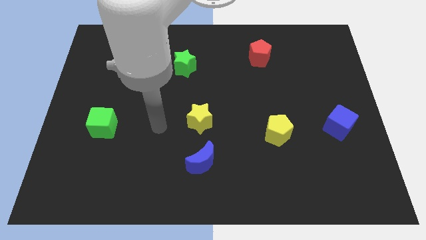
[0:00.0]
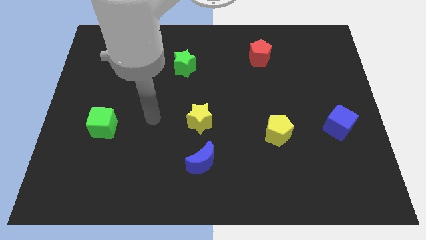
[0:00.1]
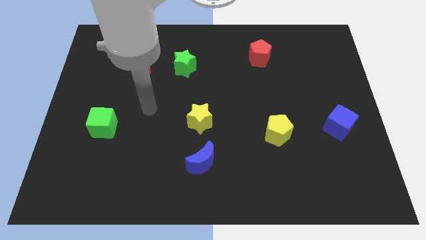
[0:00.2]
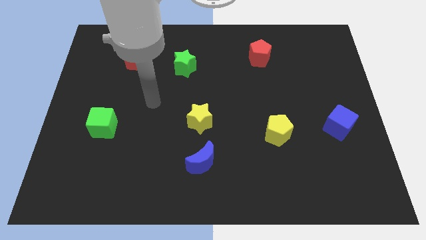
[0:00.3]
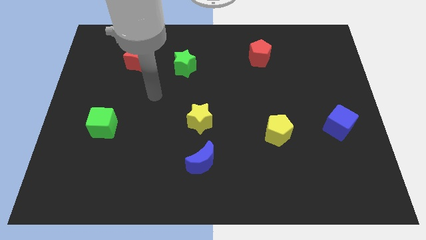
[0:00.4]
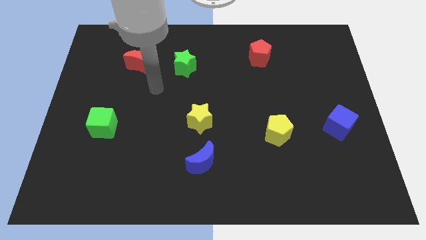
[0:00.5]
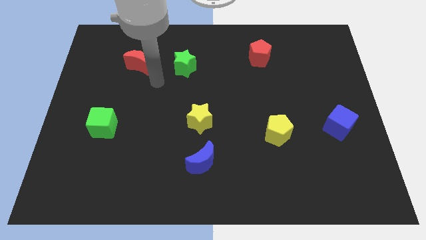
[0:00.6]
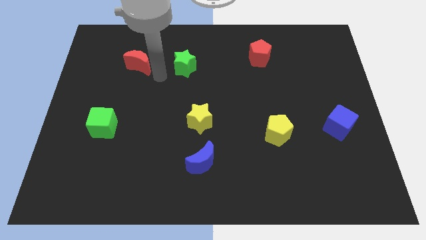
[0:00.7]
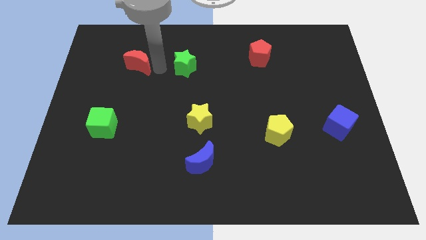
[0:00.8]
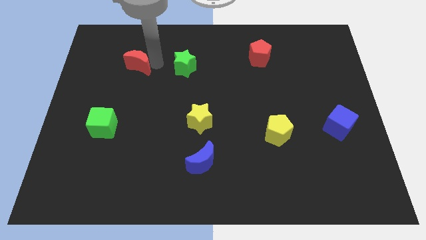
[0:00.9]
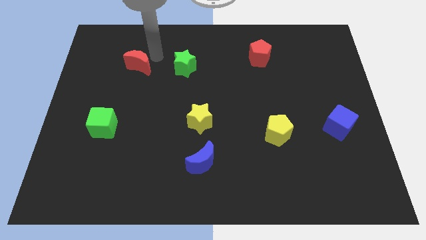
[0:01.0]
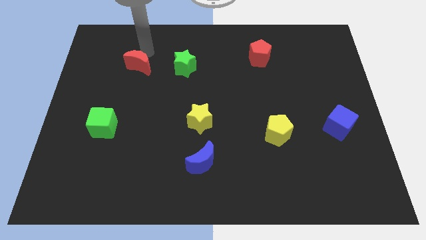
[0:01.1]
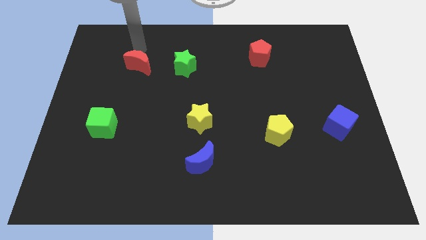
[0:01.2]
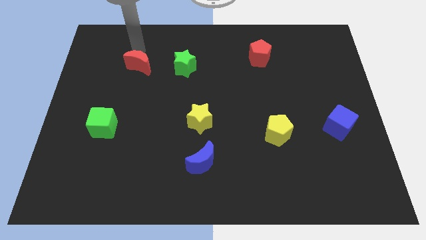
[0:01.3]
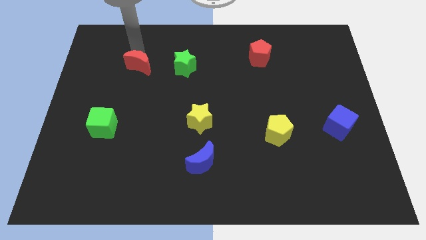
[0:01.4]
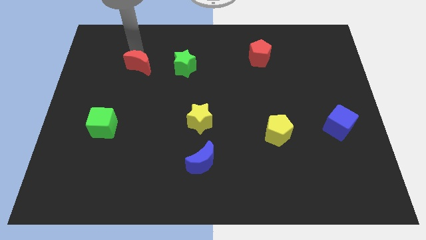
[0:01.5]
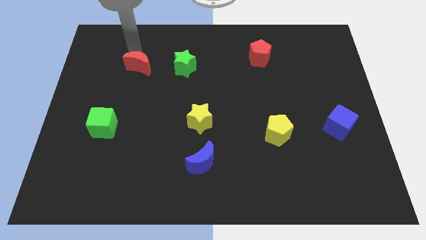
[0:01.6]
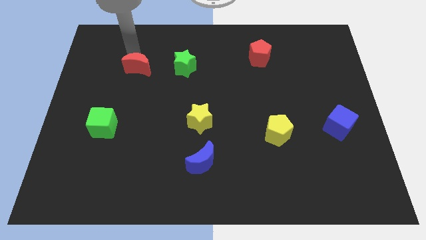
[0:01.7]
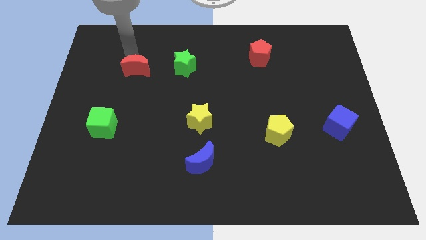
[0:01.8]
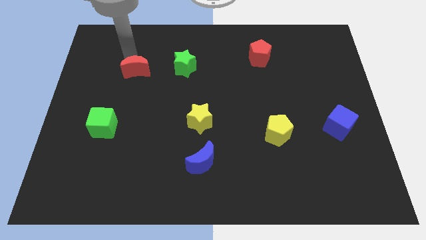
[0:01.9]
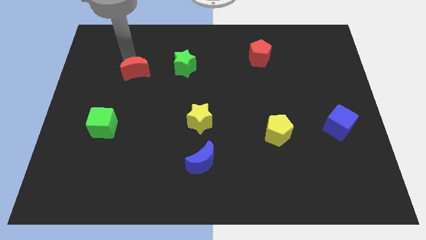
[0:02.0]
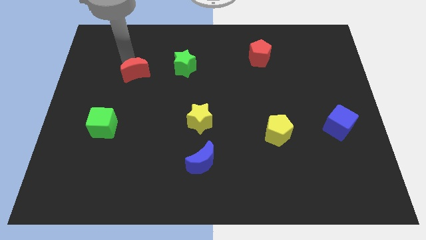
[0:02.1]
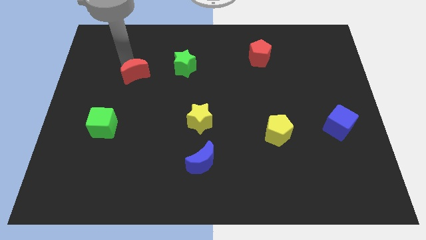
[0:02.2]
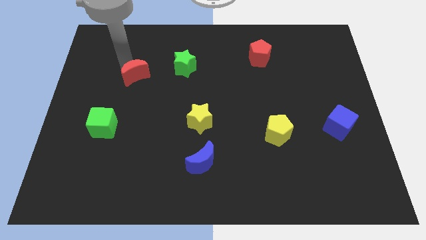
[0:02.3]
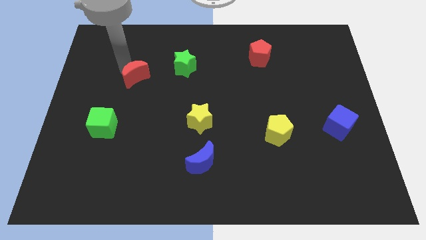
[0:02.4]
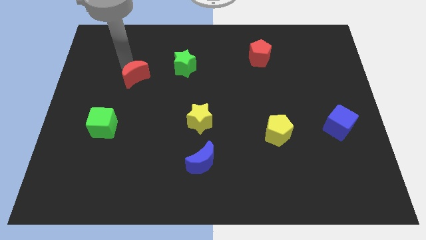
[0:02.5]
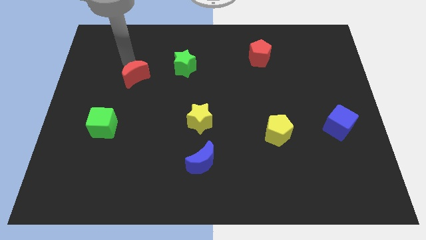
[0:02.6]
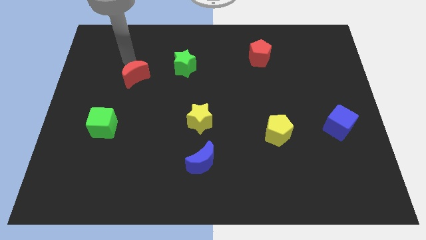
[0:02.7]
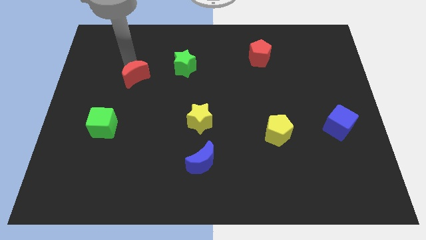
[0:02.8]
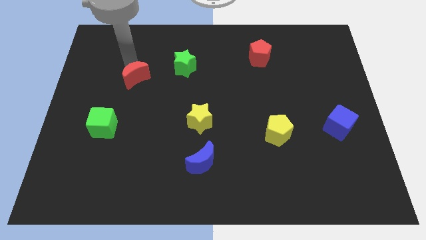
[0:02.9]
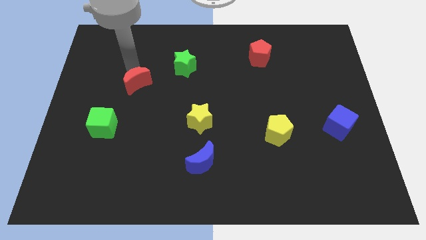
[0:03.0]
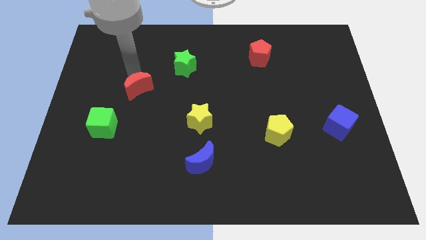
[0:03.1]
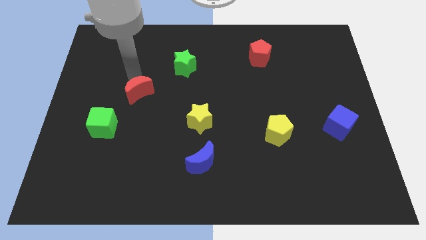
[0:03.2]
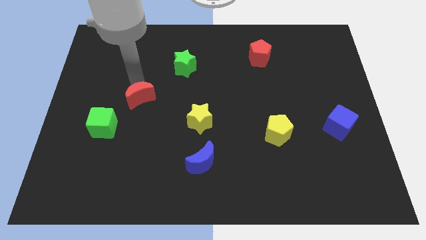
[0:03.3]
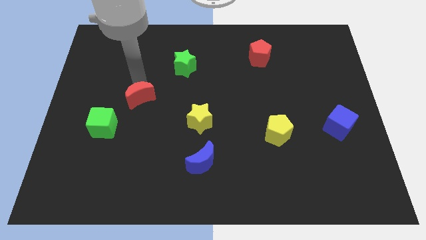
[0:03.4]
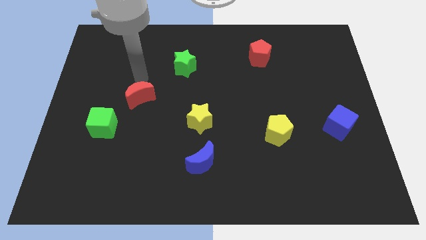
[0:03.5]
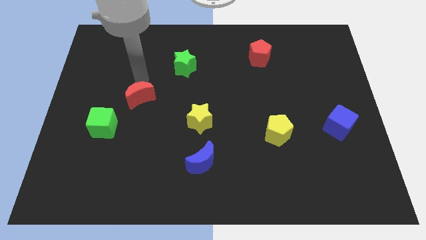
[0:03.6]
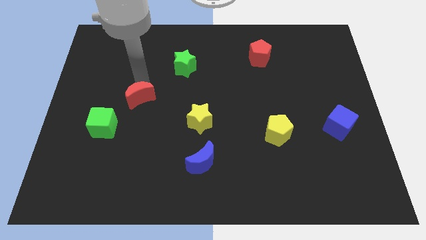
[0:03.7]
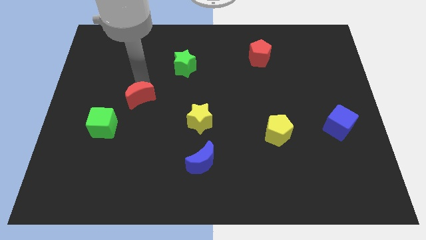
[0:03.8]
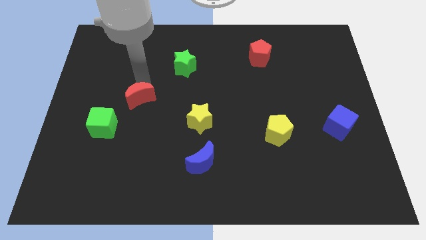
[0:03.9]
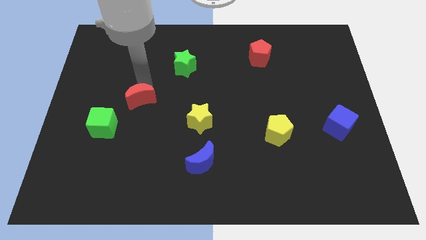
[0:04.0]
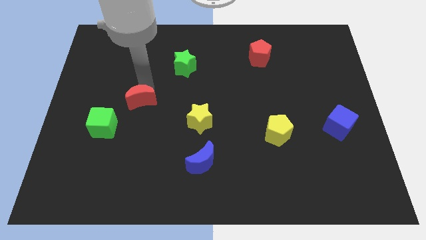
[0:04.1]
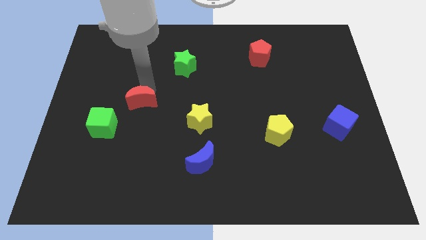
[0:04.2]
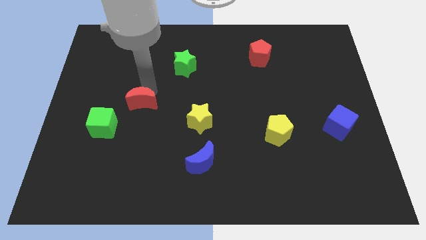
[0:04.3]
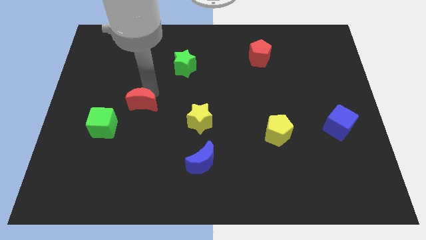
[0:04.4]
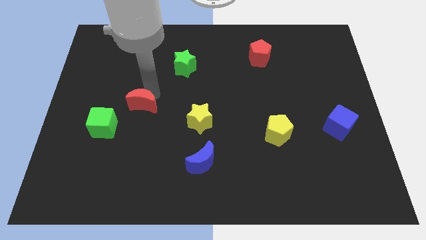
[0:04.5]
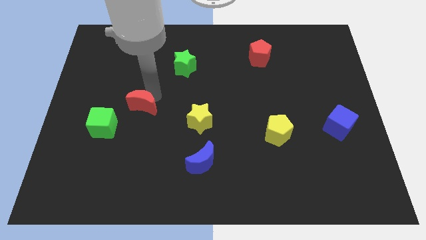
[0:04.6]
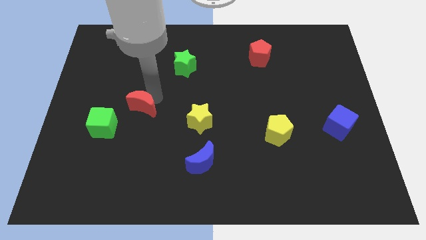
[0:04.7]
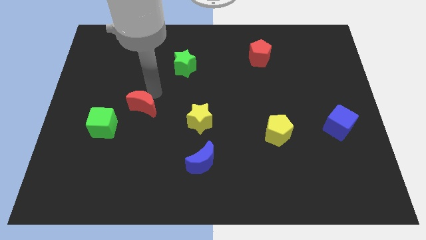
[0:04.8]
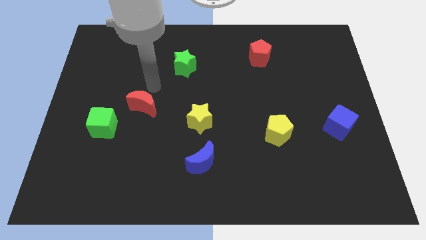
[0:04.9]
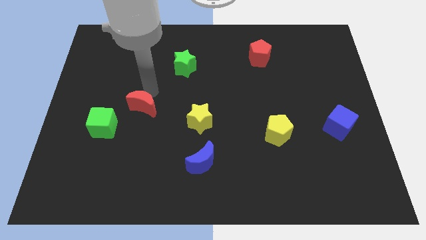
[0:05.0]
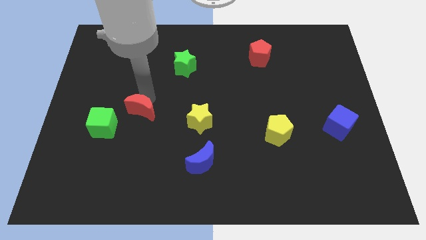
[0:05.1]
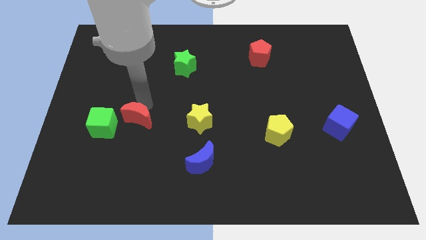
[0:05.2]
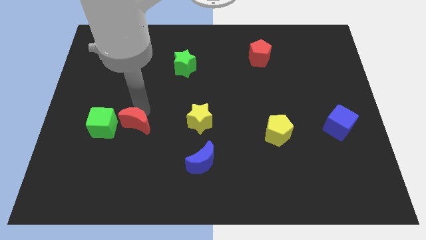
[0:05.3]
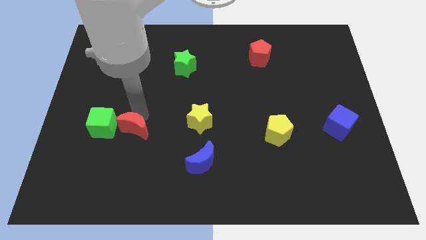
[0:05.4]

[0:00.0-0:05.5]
slide the red moon downwards

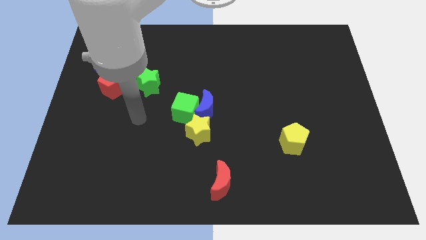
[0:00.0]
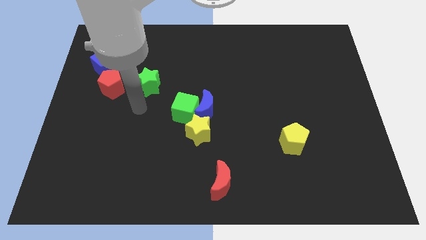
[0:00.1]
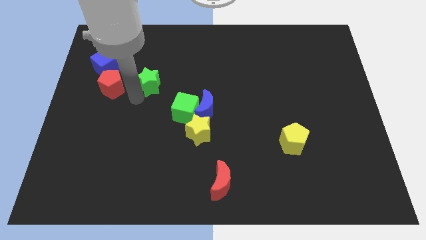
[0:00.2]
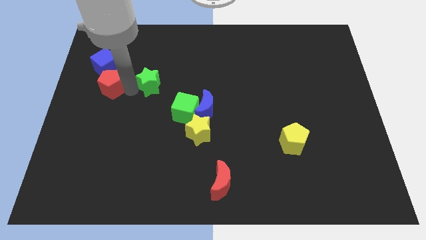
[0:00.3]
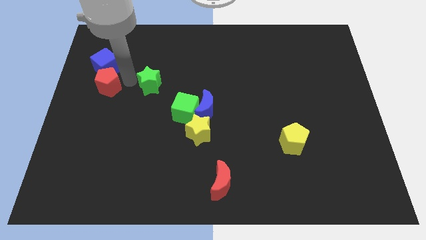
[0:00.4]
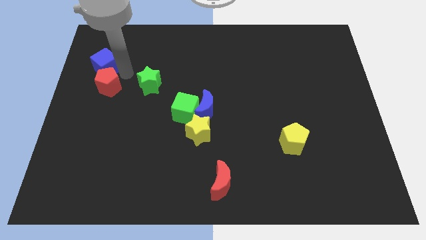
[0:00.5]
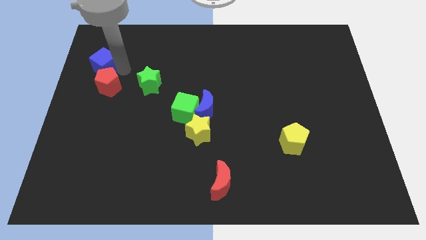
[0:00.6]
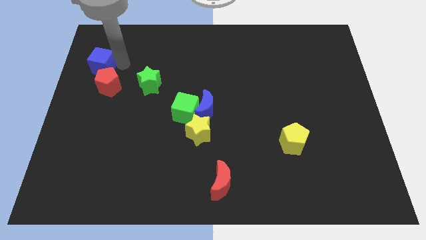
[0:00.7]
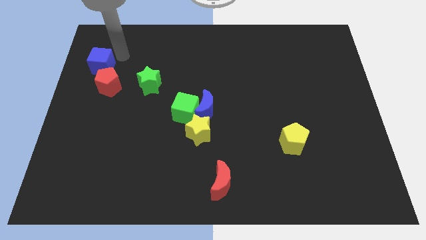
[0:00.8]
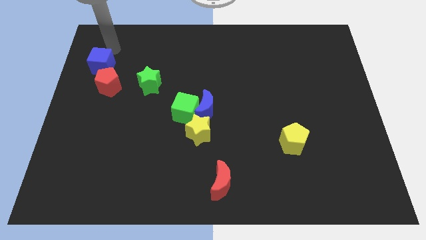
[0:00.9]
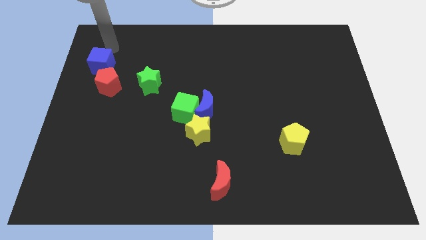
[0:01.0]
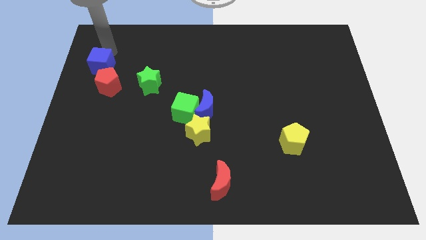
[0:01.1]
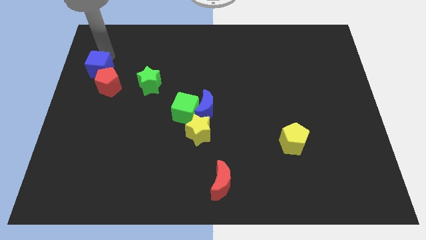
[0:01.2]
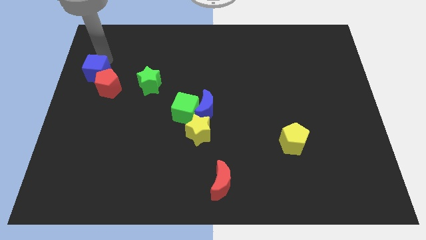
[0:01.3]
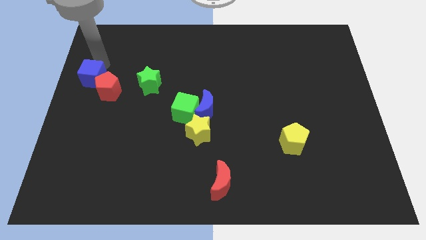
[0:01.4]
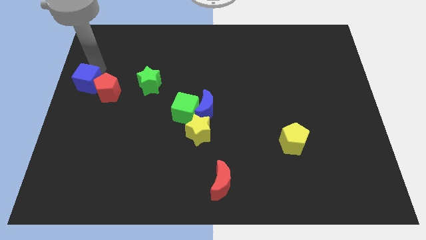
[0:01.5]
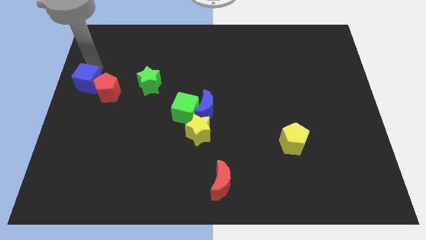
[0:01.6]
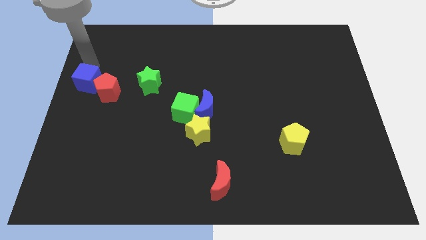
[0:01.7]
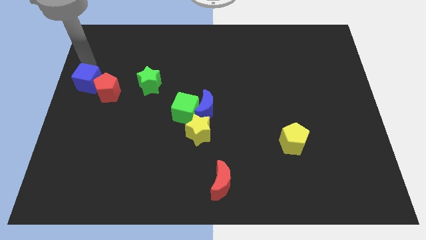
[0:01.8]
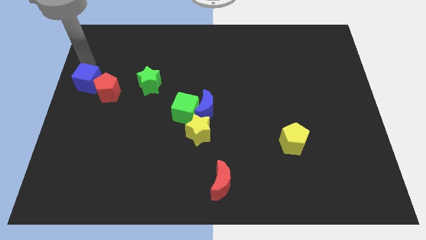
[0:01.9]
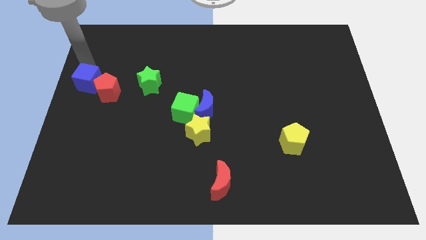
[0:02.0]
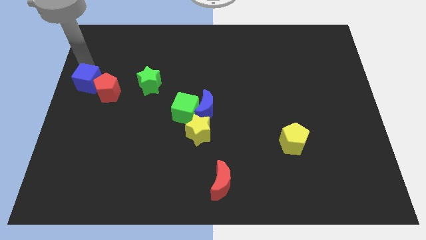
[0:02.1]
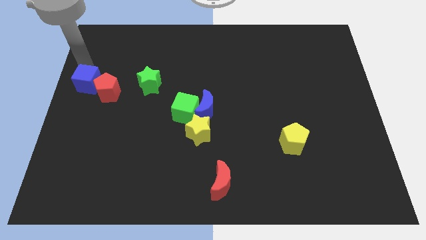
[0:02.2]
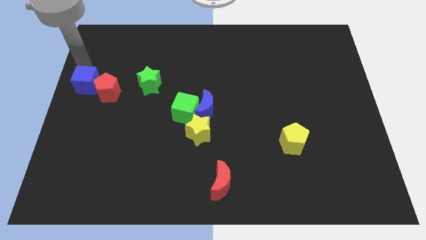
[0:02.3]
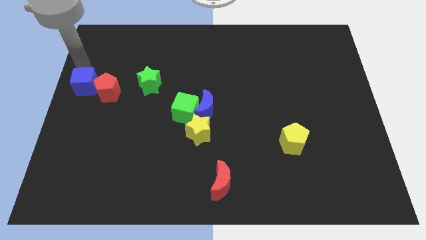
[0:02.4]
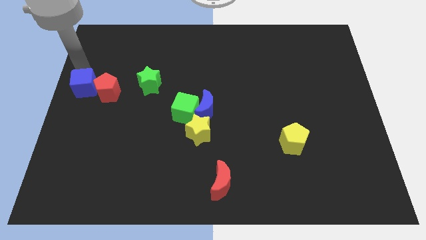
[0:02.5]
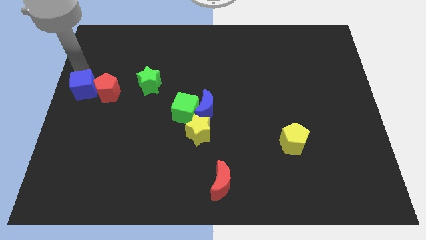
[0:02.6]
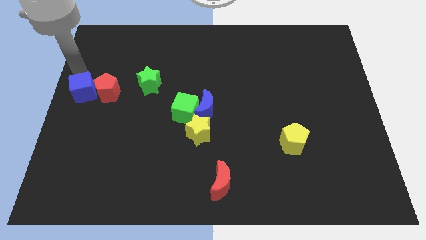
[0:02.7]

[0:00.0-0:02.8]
slightly push the blue cube down

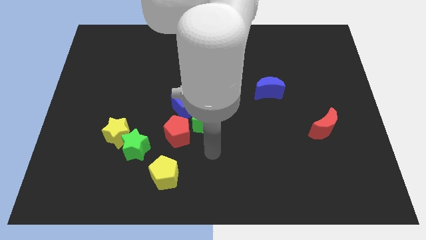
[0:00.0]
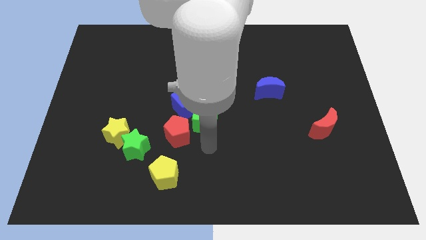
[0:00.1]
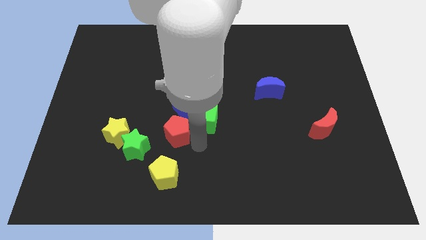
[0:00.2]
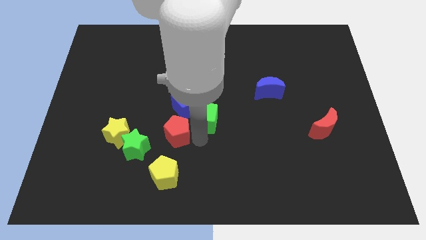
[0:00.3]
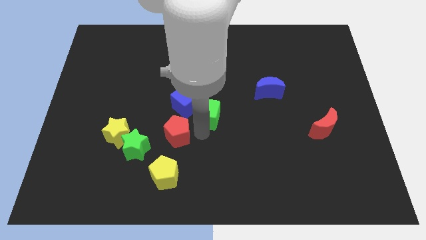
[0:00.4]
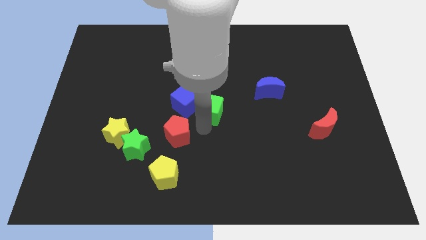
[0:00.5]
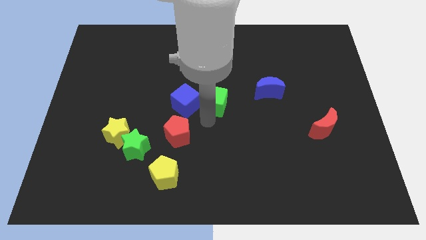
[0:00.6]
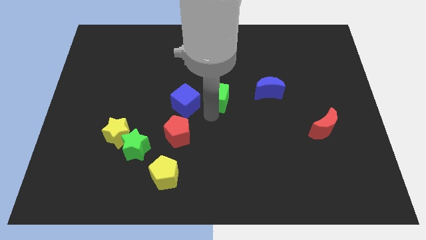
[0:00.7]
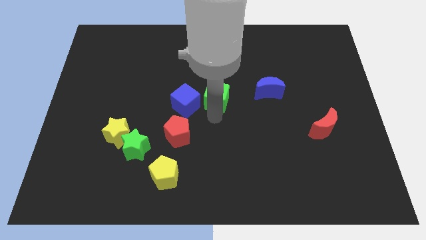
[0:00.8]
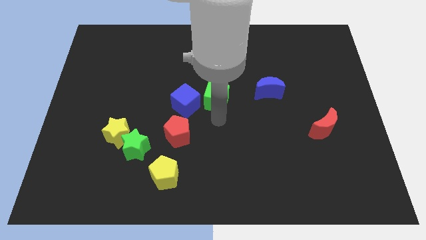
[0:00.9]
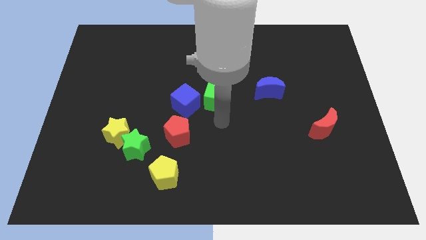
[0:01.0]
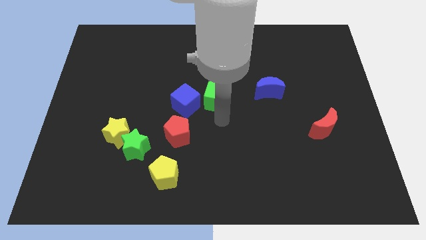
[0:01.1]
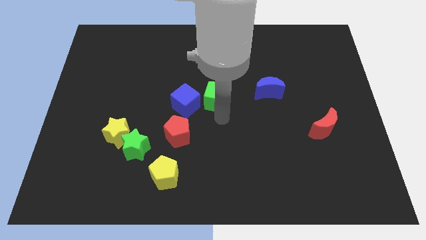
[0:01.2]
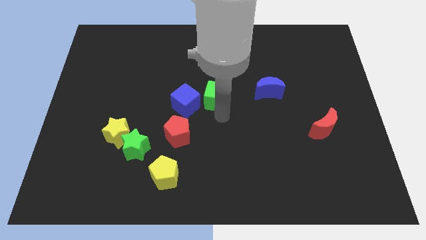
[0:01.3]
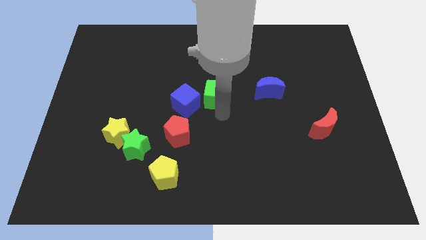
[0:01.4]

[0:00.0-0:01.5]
slightly slide the green cube up
